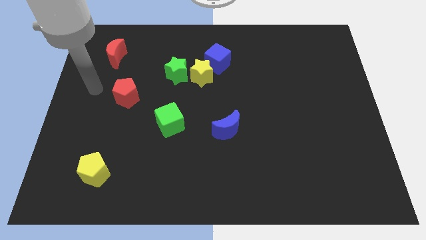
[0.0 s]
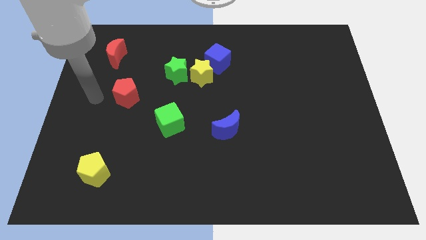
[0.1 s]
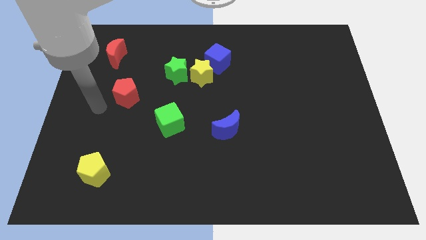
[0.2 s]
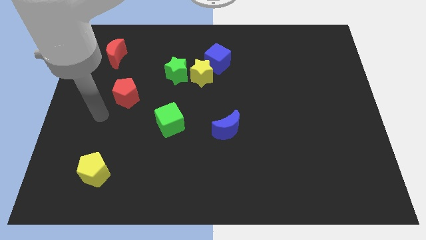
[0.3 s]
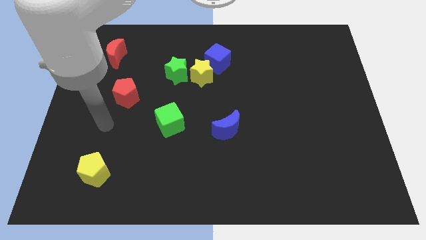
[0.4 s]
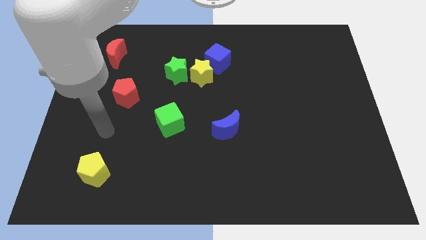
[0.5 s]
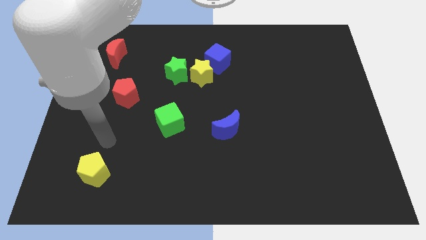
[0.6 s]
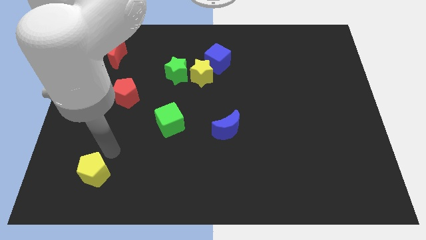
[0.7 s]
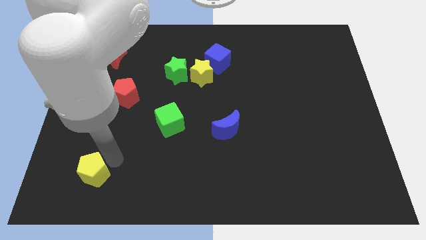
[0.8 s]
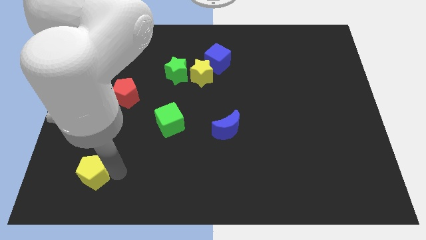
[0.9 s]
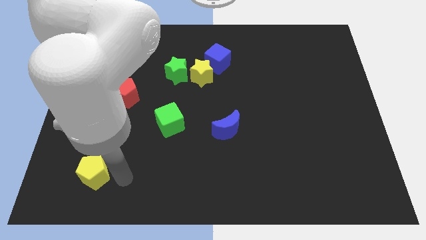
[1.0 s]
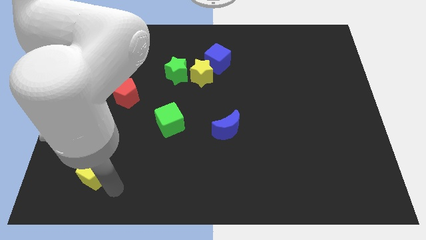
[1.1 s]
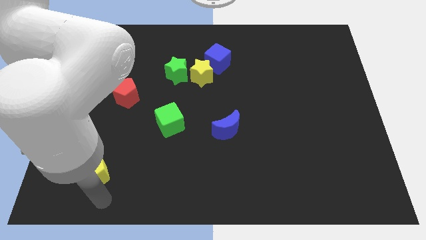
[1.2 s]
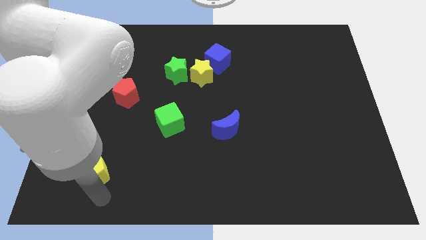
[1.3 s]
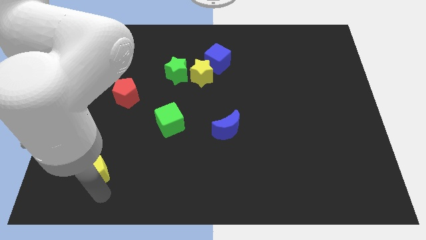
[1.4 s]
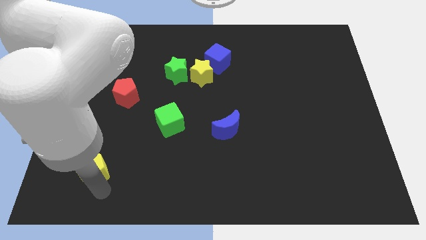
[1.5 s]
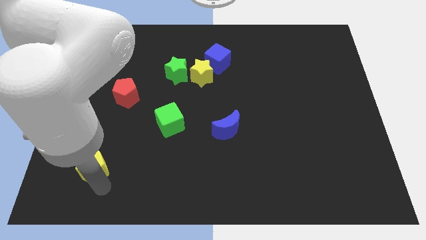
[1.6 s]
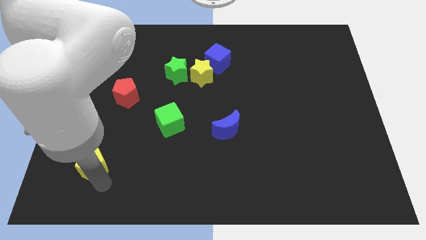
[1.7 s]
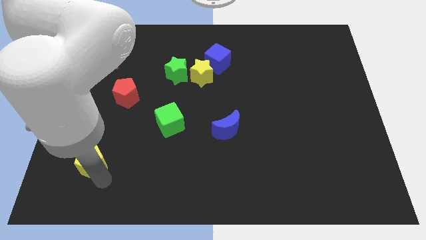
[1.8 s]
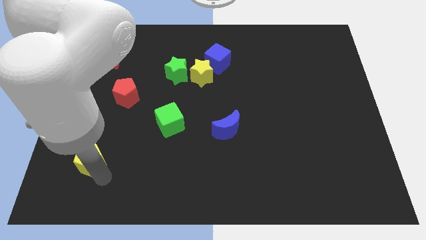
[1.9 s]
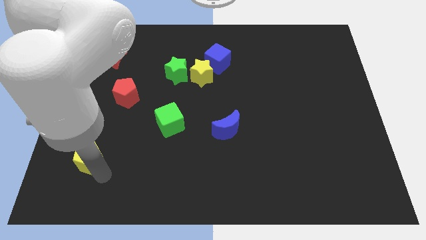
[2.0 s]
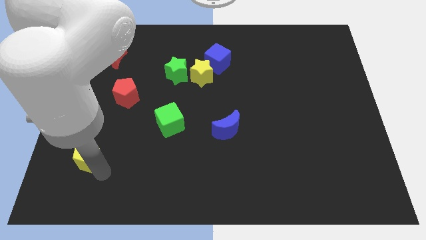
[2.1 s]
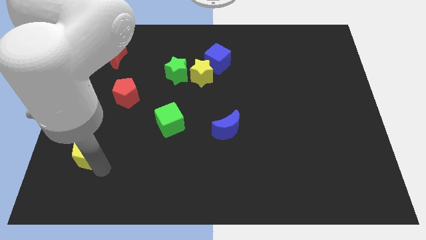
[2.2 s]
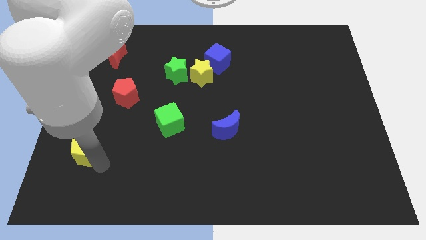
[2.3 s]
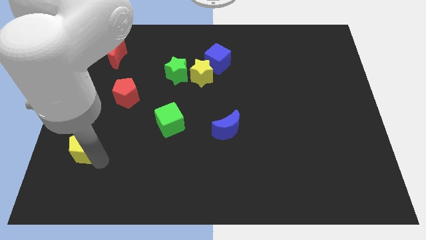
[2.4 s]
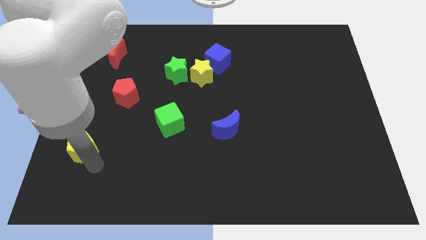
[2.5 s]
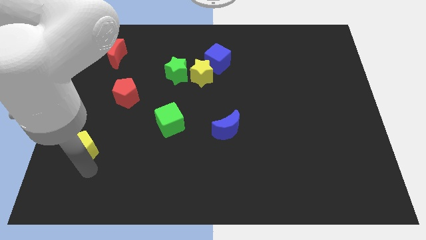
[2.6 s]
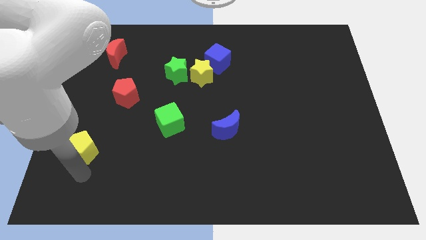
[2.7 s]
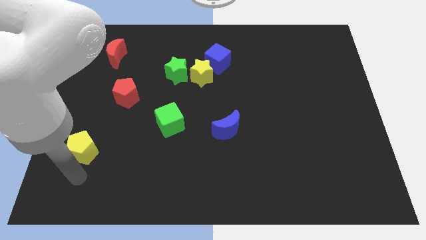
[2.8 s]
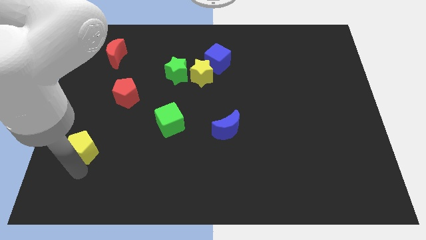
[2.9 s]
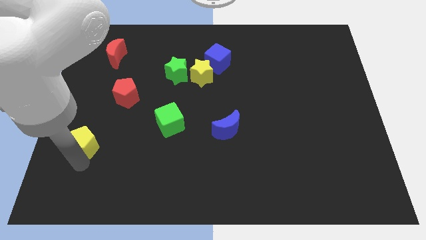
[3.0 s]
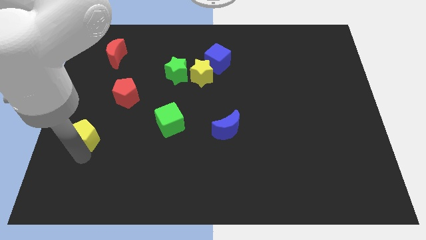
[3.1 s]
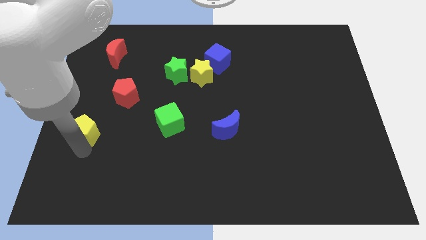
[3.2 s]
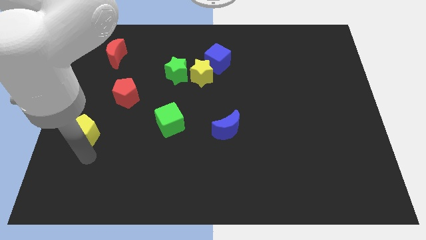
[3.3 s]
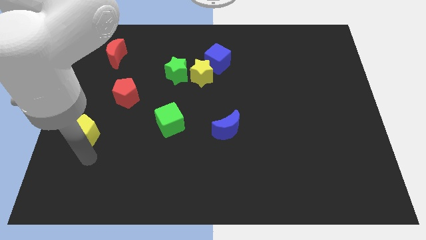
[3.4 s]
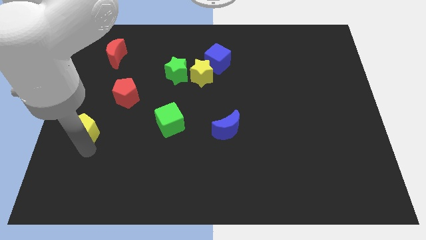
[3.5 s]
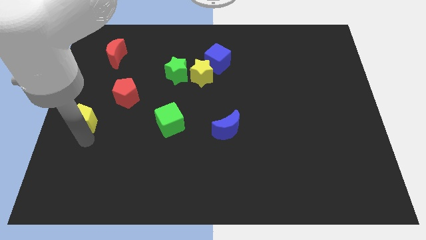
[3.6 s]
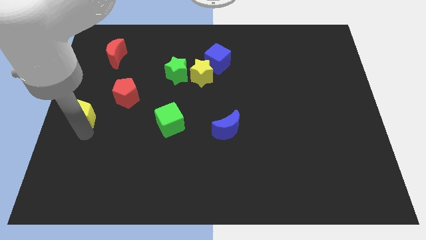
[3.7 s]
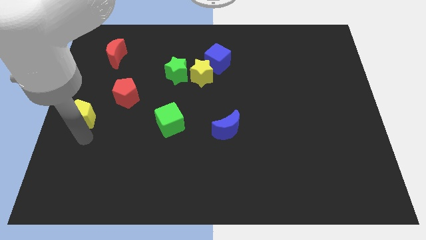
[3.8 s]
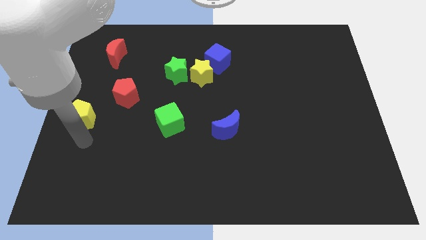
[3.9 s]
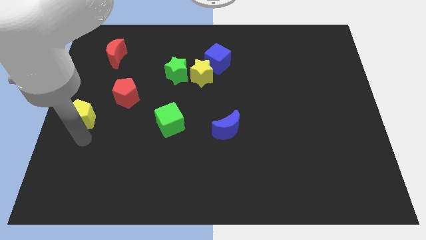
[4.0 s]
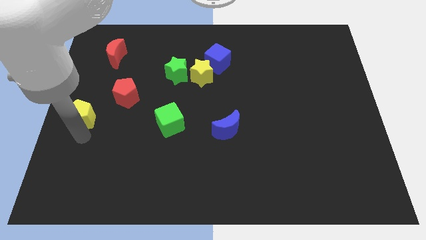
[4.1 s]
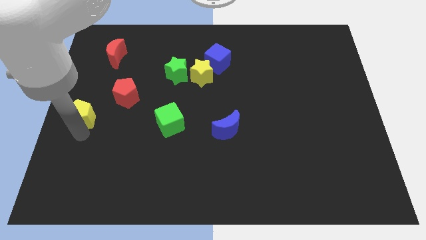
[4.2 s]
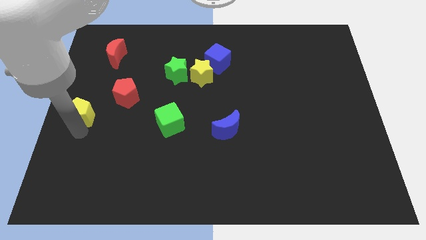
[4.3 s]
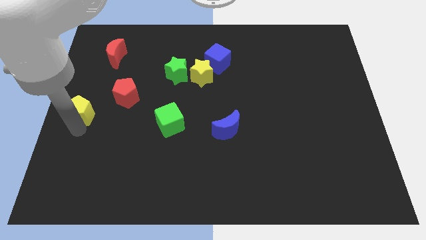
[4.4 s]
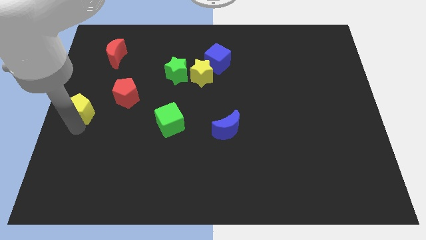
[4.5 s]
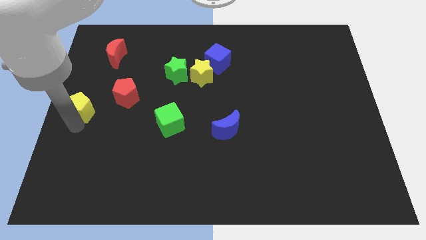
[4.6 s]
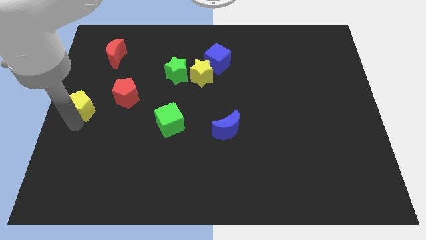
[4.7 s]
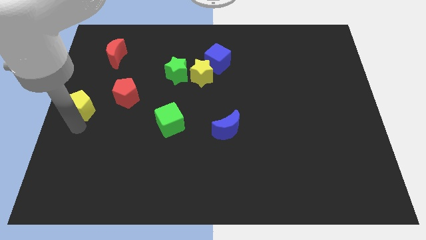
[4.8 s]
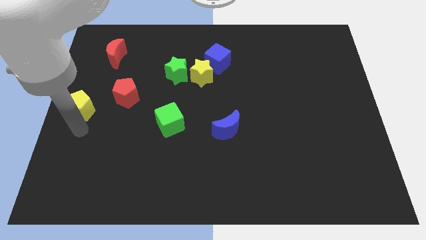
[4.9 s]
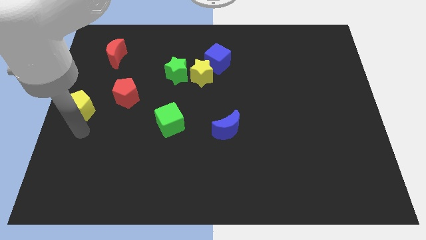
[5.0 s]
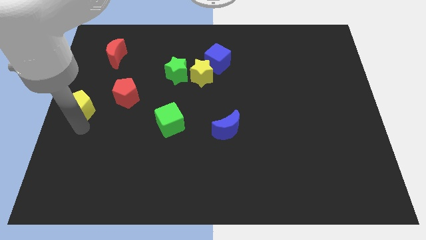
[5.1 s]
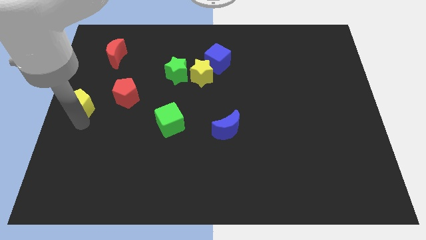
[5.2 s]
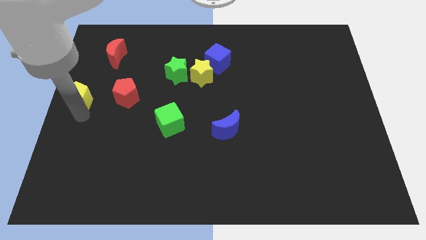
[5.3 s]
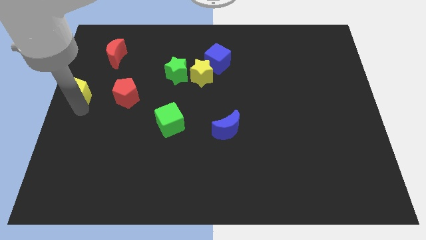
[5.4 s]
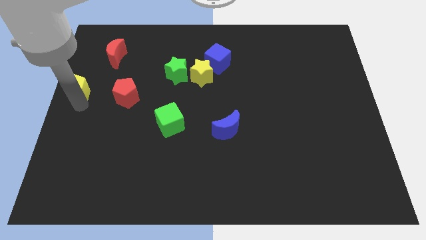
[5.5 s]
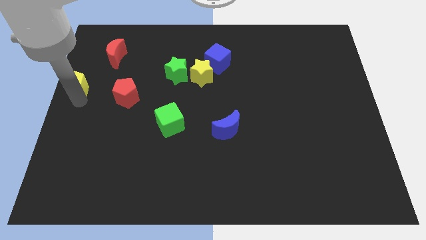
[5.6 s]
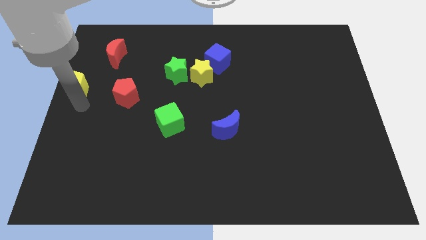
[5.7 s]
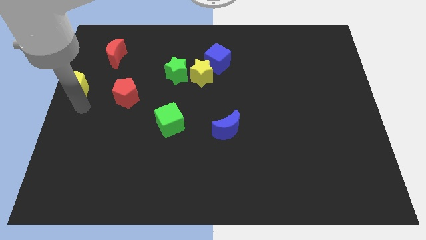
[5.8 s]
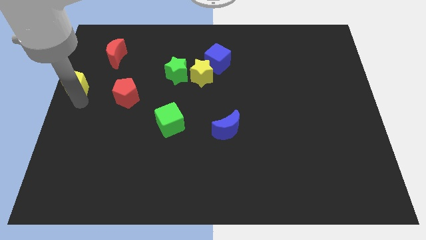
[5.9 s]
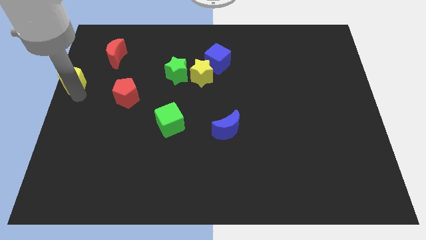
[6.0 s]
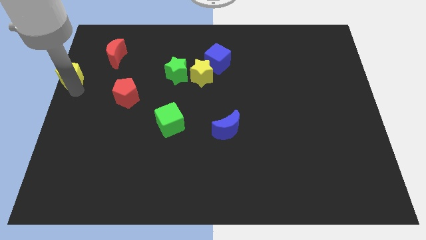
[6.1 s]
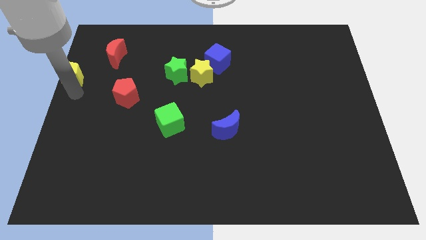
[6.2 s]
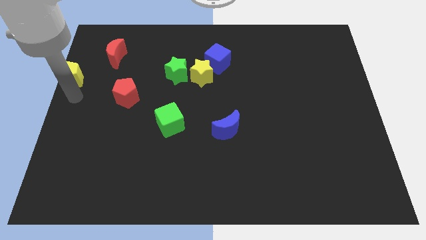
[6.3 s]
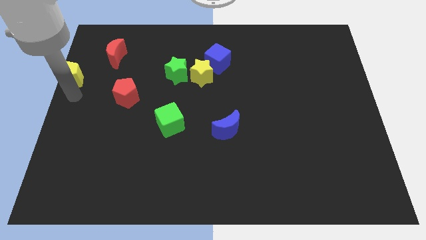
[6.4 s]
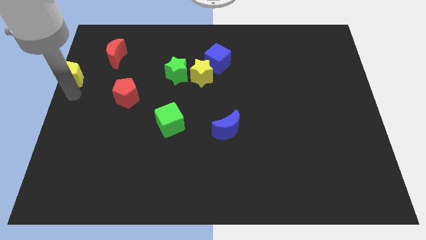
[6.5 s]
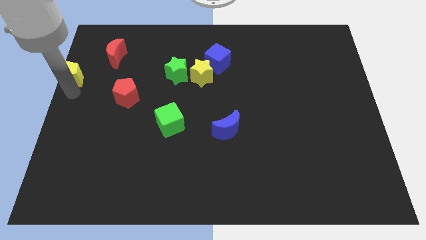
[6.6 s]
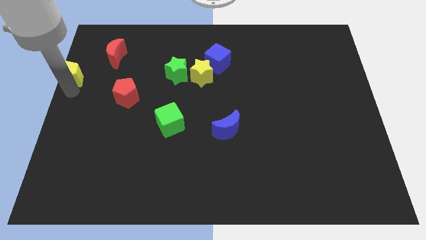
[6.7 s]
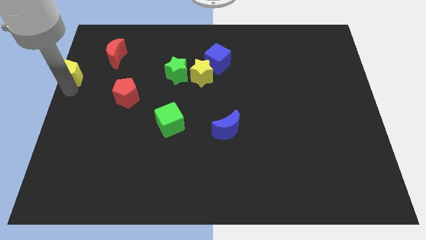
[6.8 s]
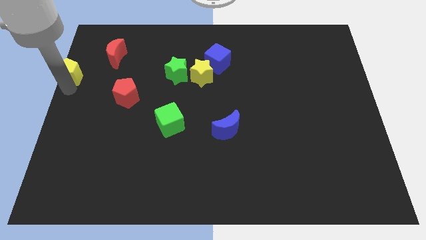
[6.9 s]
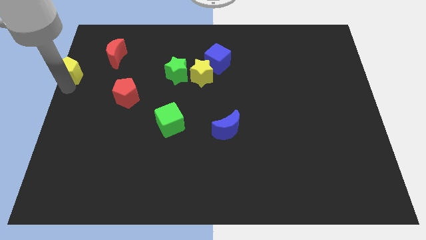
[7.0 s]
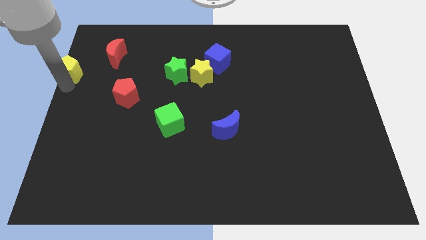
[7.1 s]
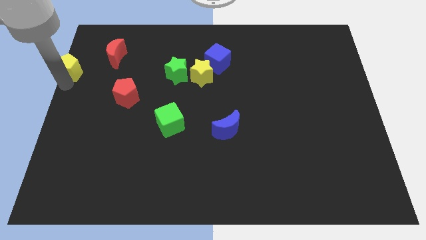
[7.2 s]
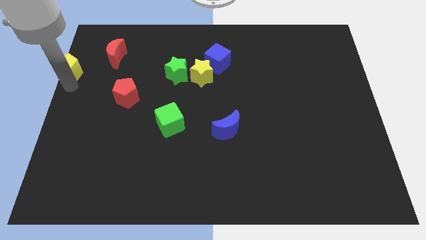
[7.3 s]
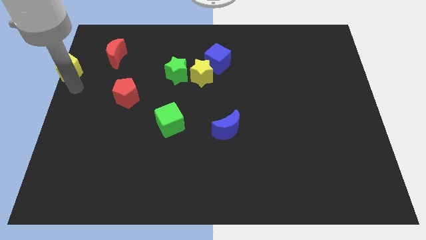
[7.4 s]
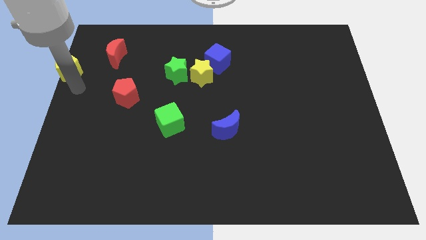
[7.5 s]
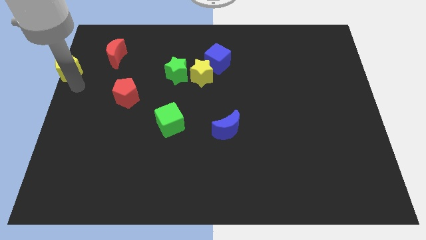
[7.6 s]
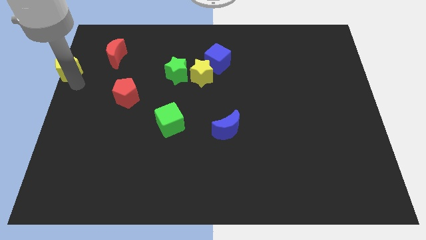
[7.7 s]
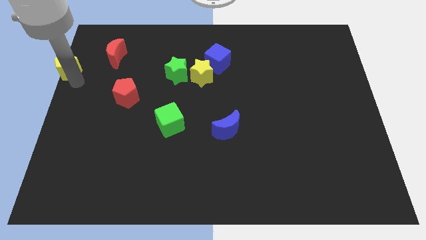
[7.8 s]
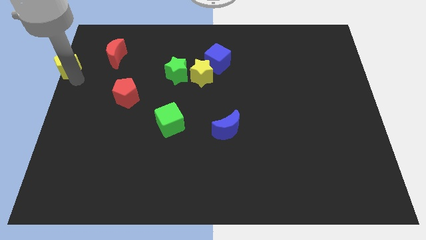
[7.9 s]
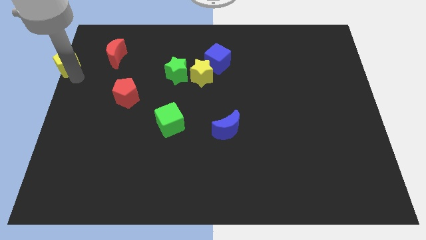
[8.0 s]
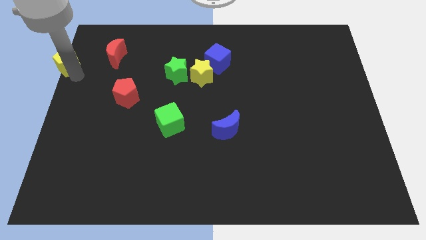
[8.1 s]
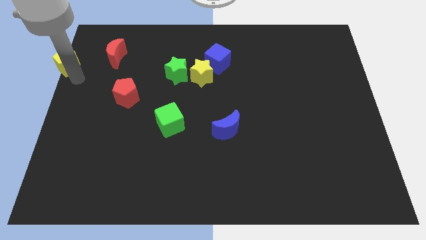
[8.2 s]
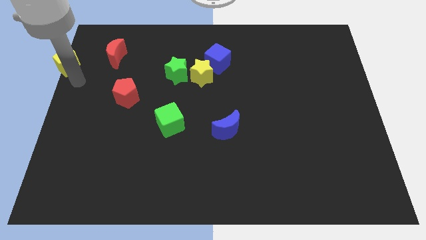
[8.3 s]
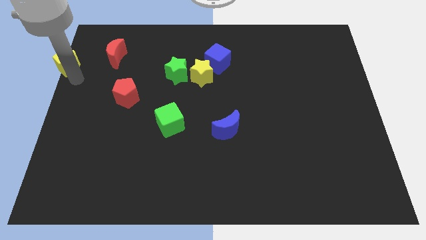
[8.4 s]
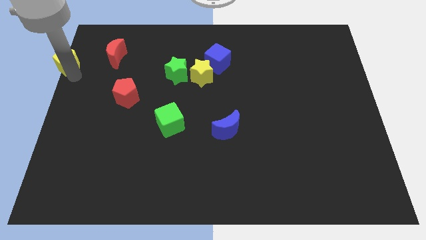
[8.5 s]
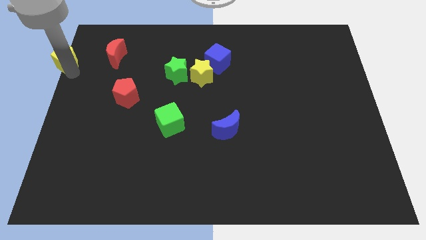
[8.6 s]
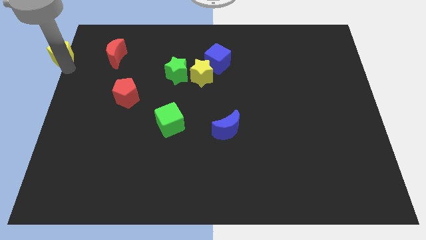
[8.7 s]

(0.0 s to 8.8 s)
push the yellow pentagon to the top left
